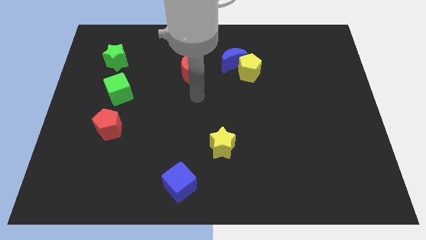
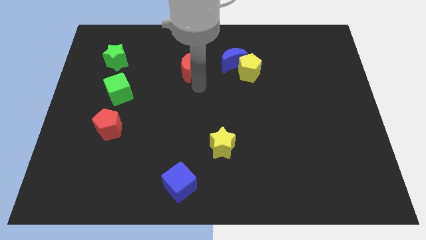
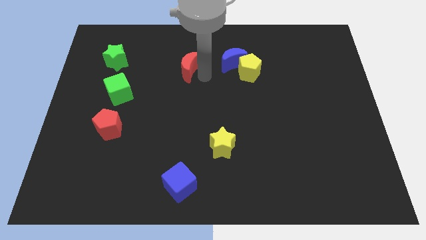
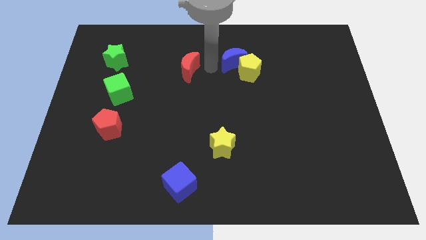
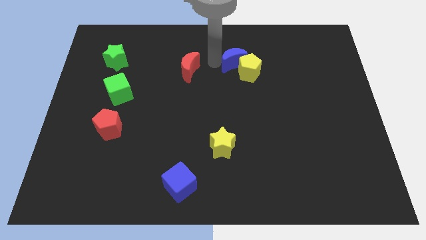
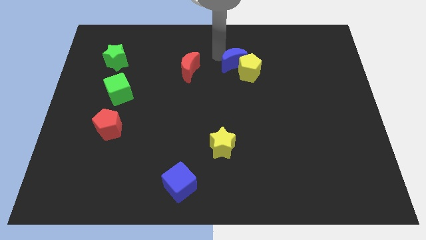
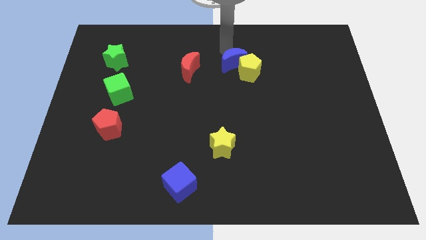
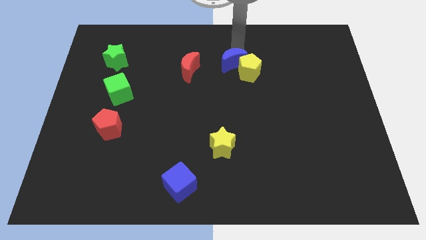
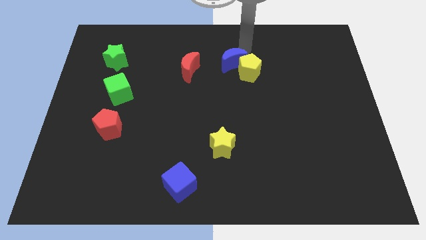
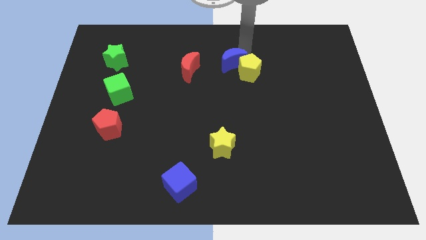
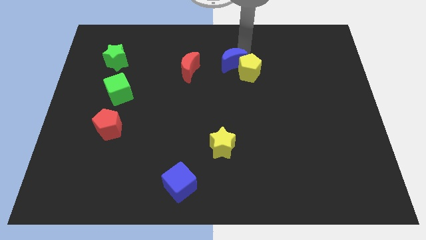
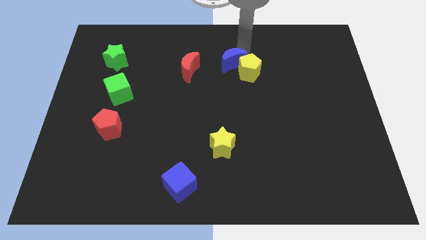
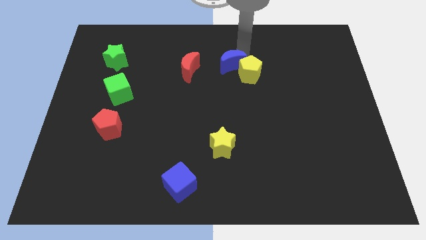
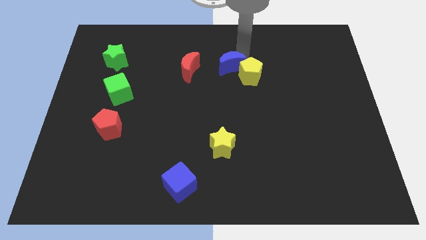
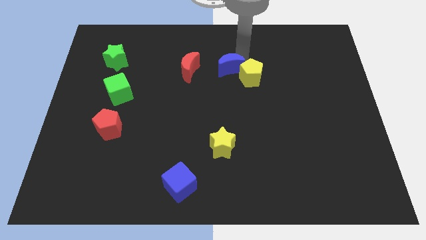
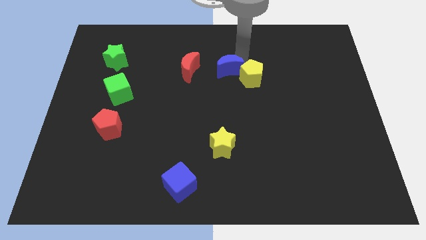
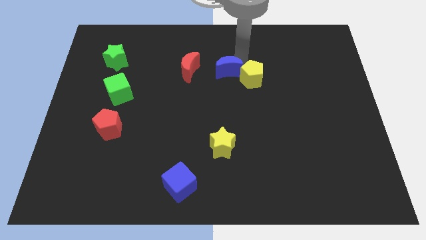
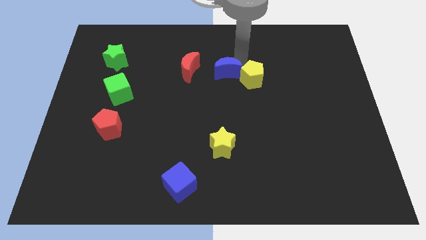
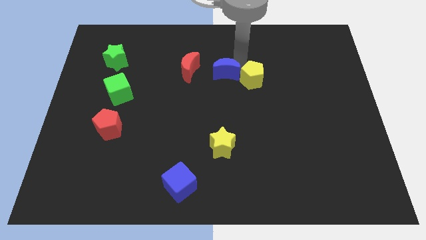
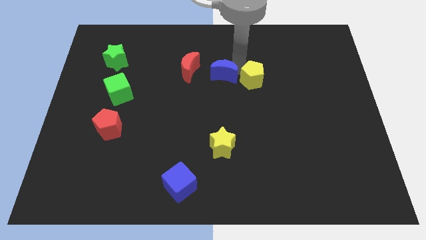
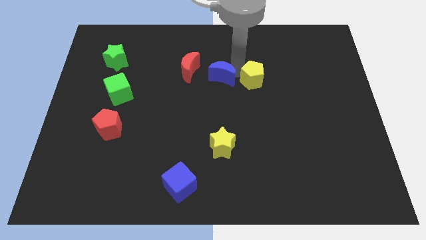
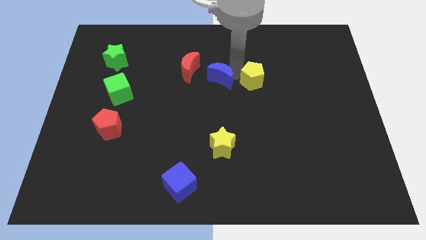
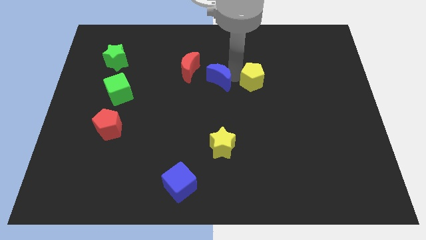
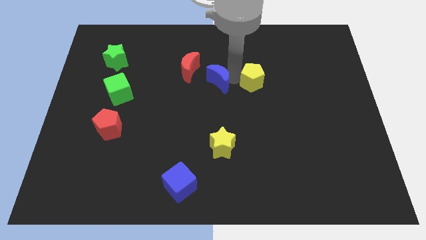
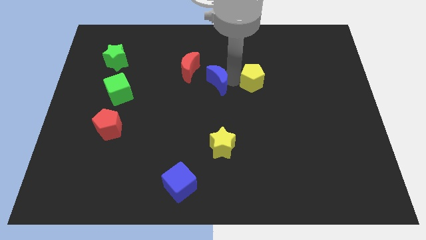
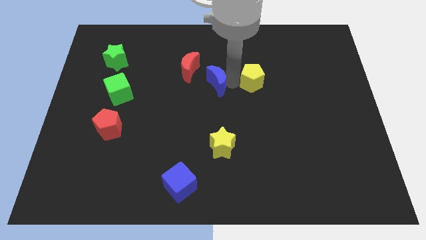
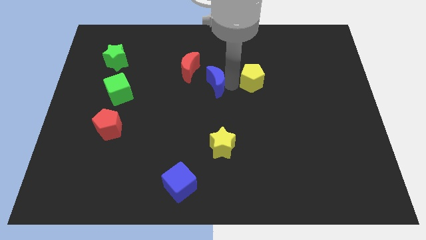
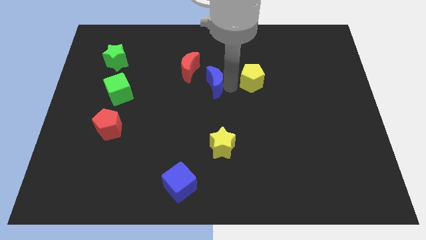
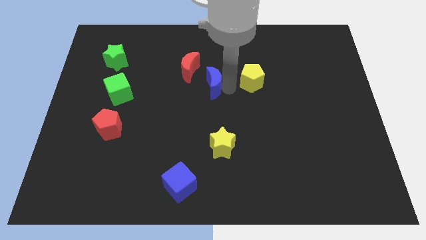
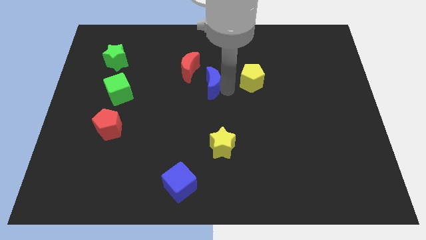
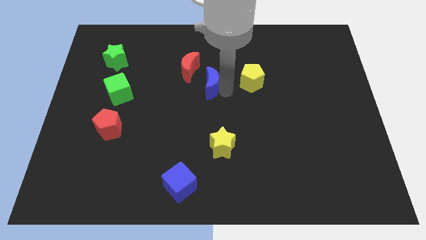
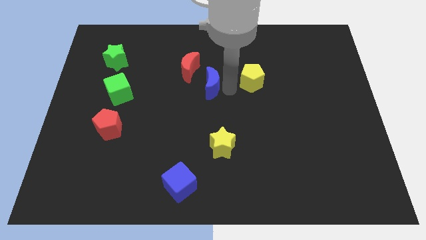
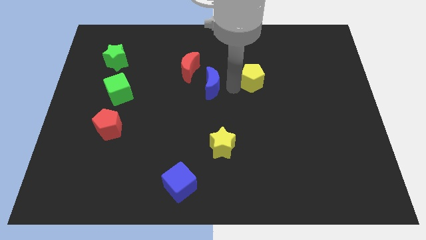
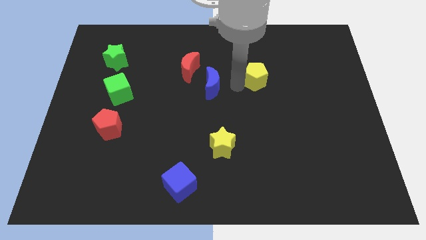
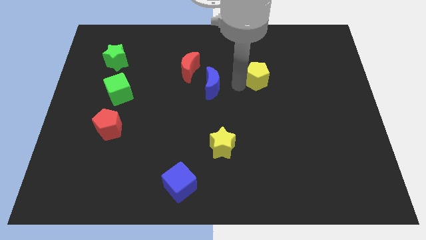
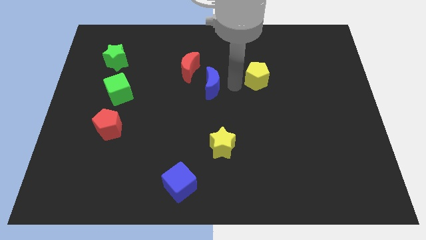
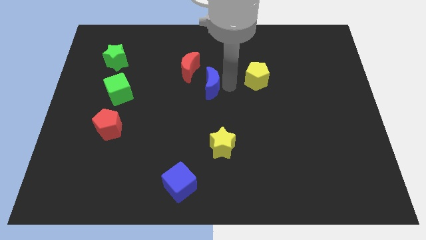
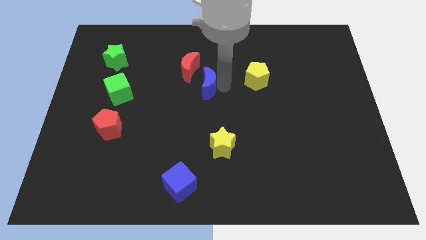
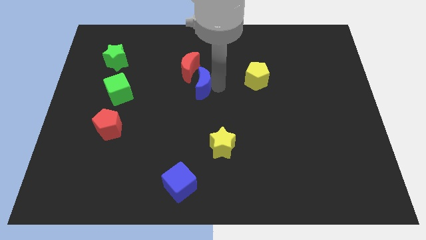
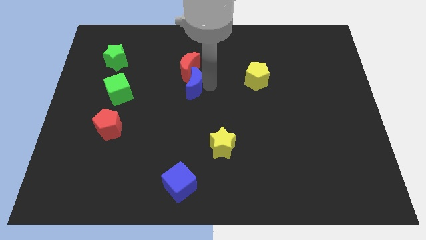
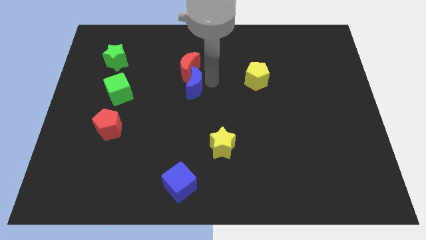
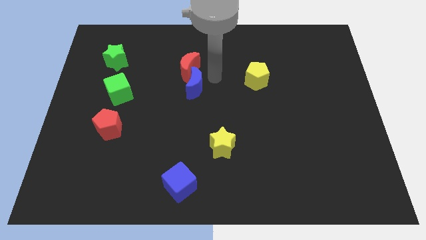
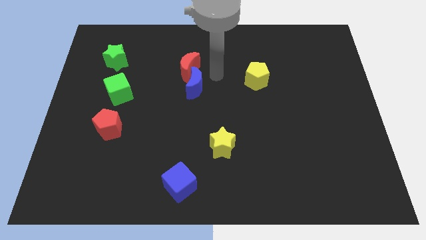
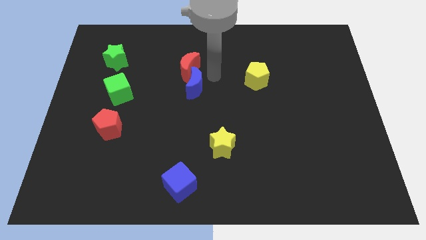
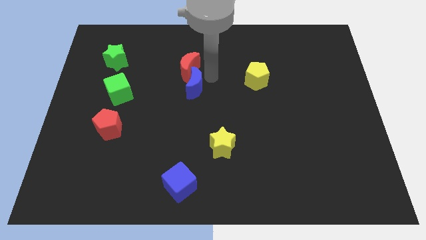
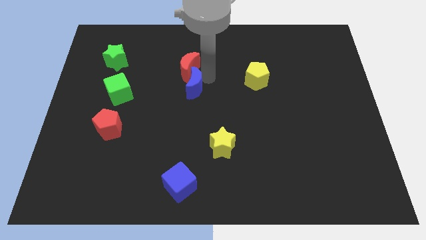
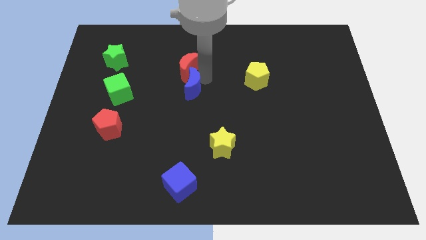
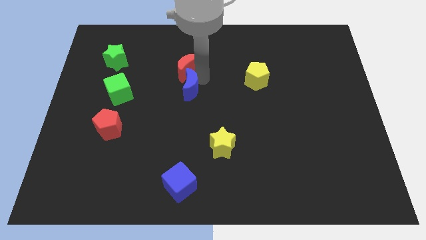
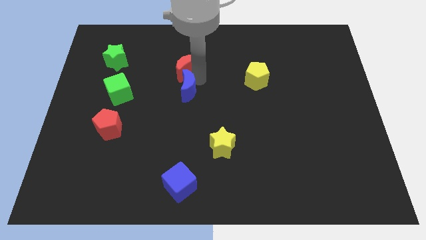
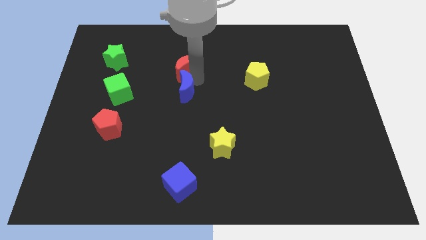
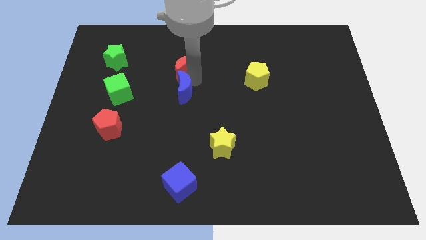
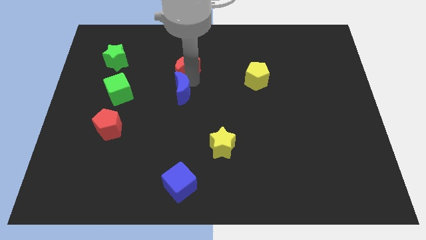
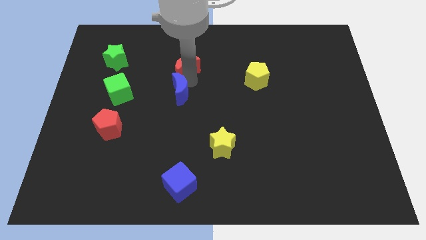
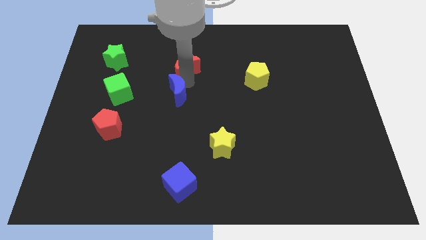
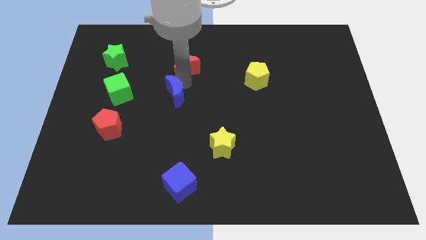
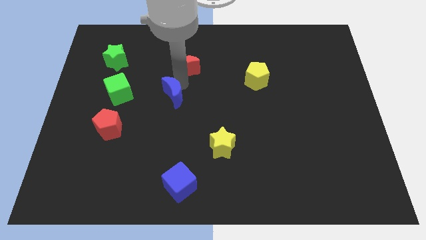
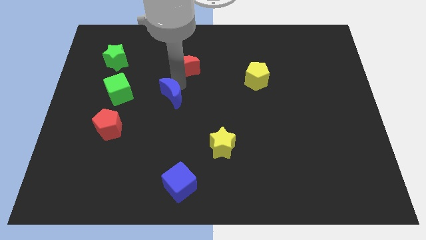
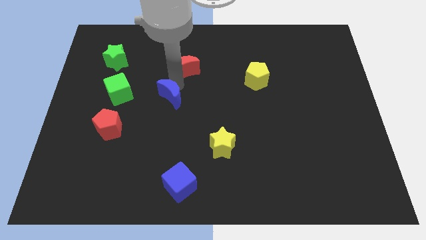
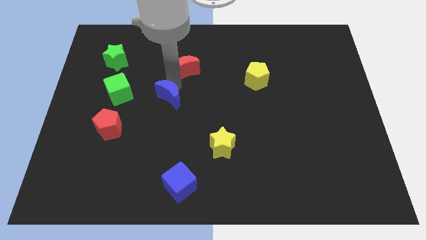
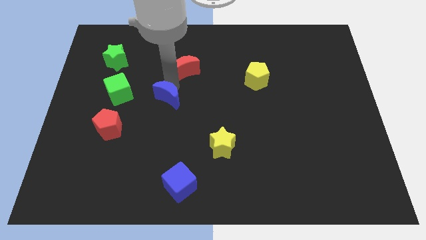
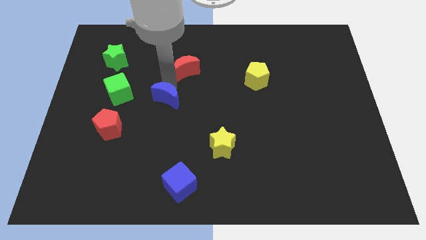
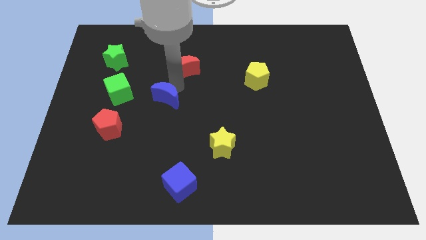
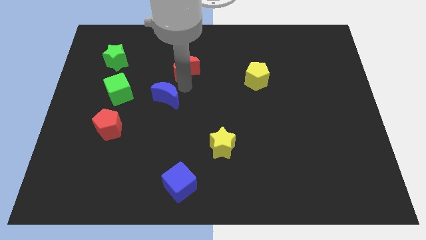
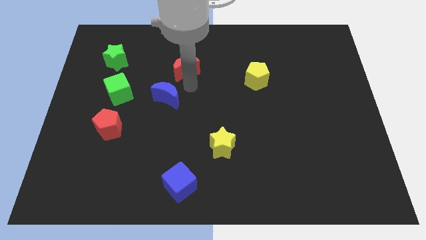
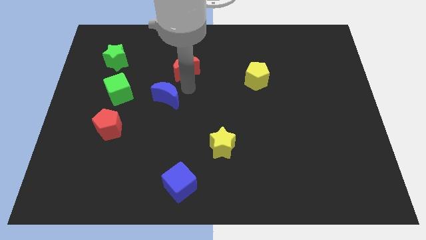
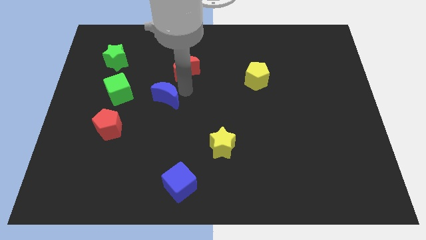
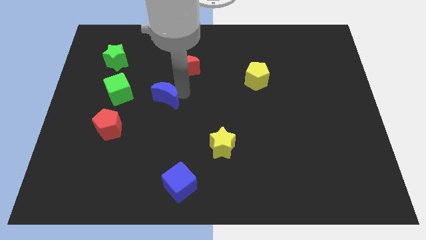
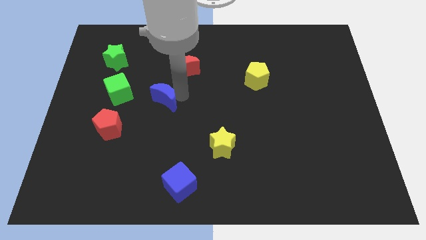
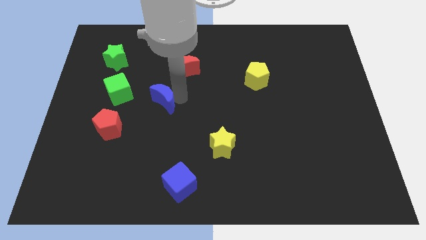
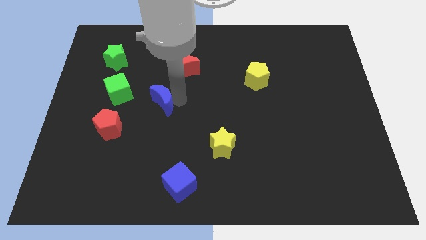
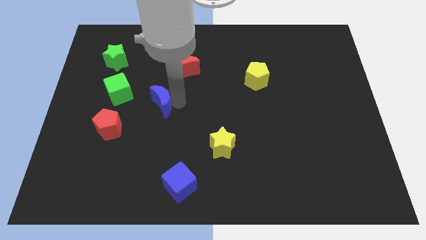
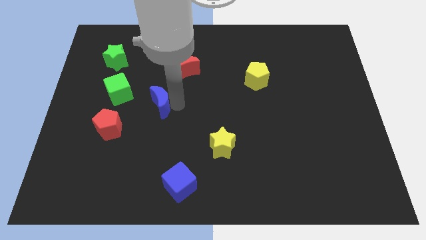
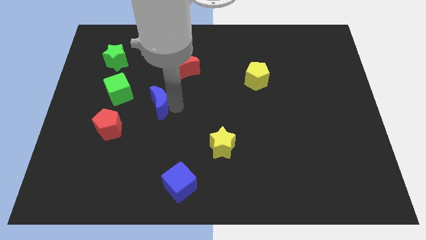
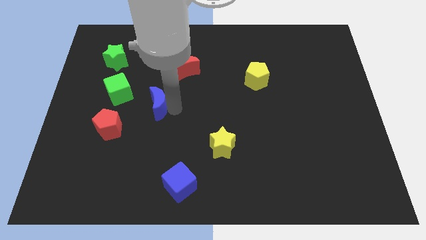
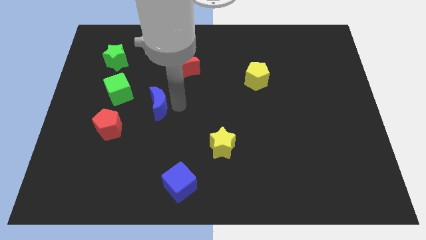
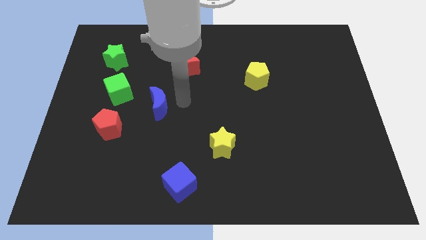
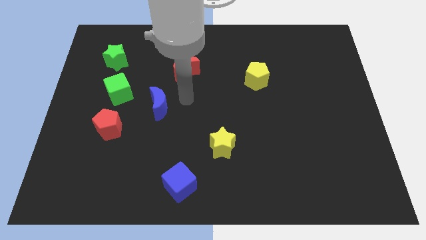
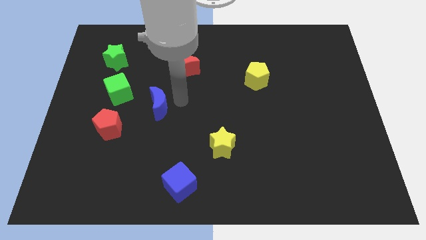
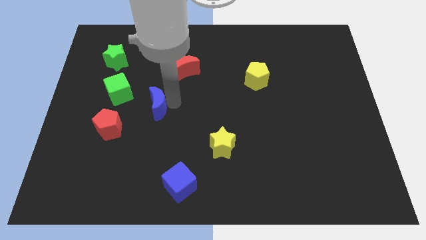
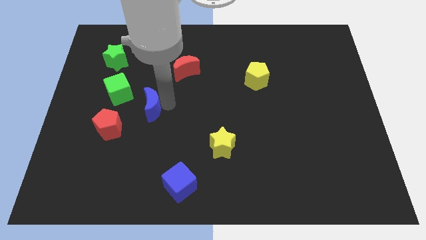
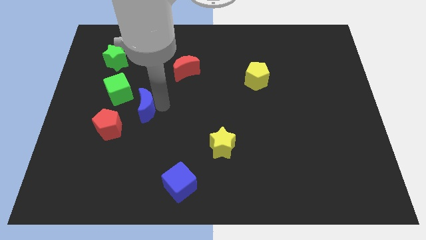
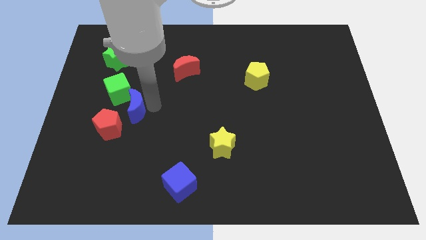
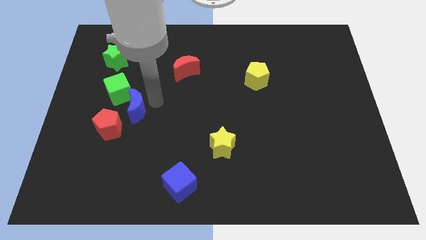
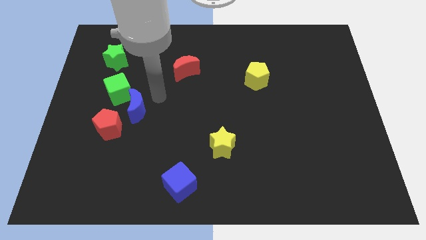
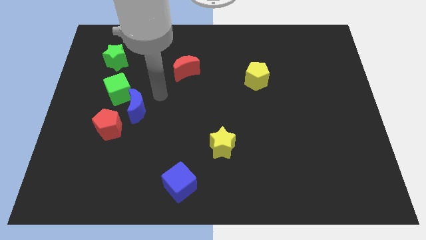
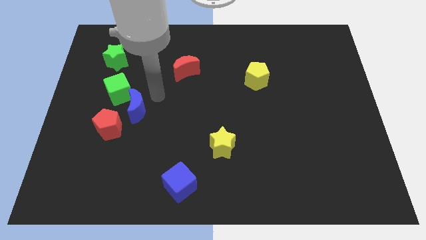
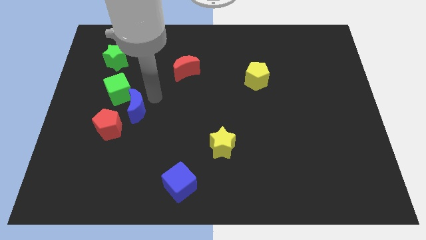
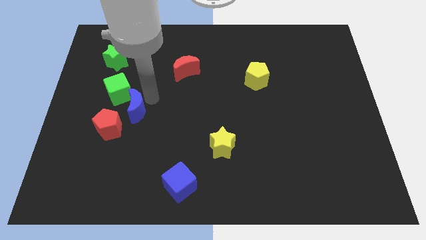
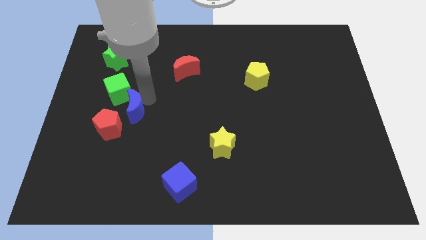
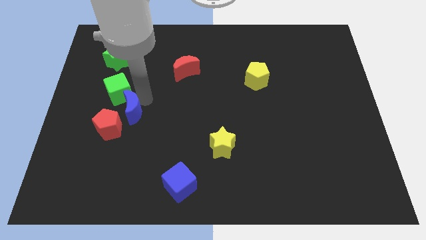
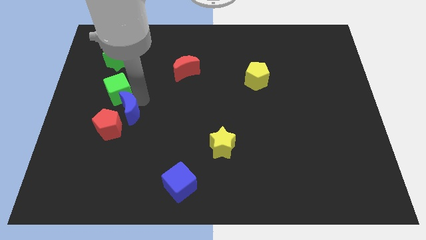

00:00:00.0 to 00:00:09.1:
put the blue moon close to the red pentagon
